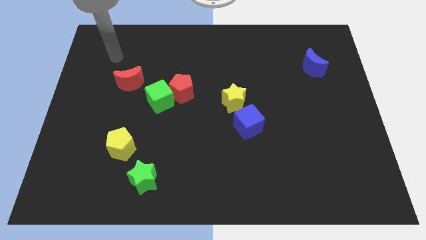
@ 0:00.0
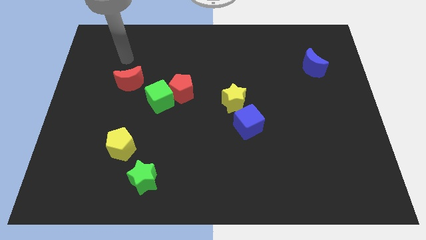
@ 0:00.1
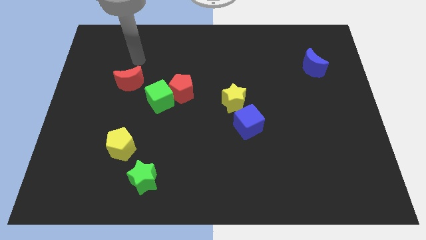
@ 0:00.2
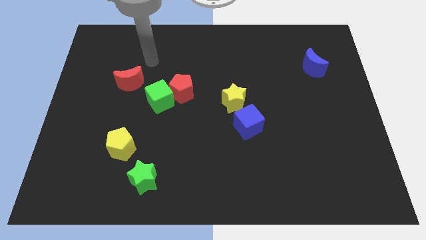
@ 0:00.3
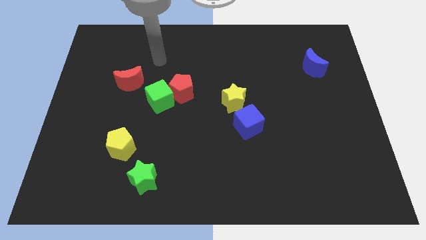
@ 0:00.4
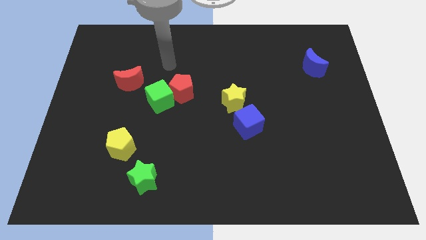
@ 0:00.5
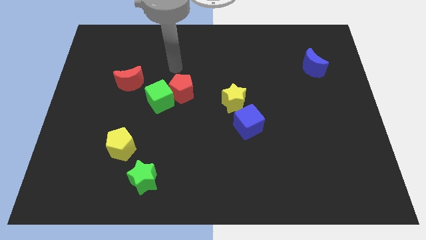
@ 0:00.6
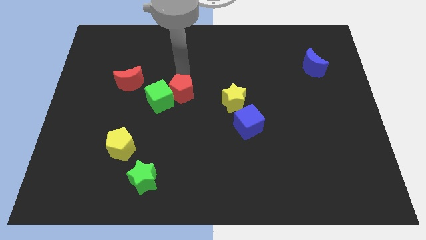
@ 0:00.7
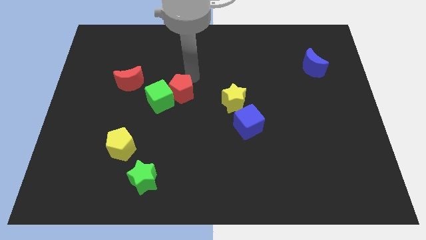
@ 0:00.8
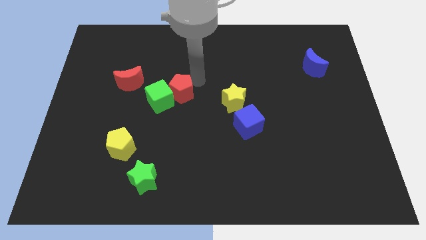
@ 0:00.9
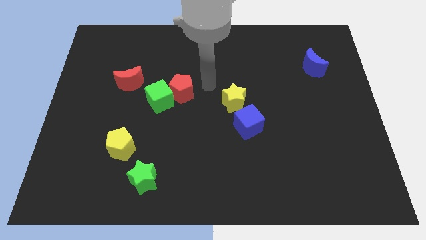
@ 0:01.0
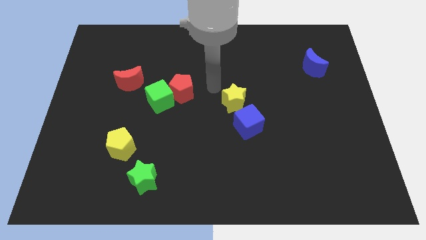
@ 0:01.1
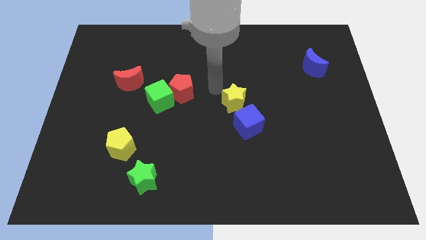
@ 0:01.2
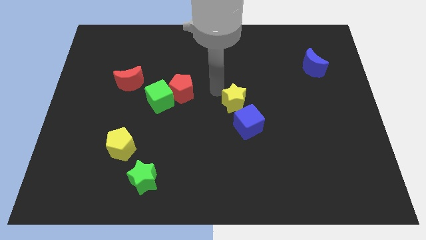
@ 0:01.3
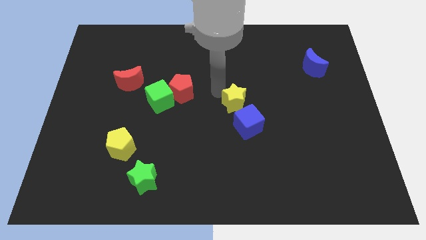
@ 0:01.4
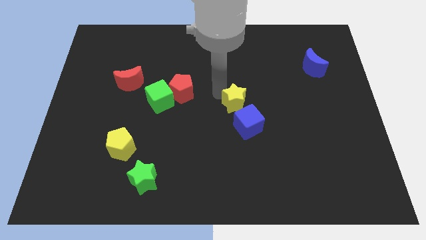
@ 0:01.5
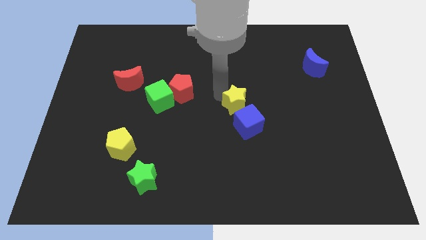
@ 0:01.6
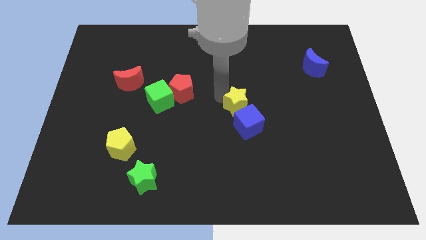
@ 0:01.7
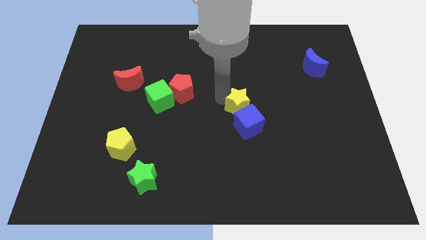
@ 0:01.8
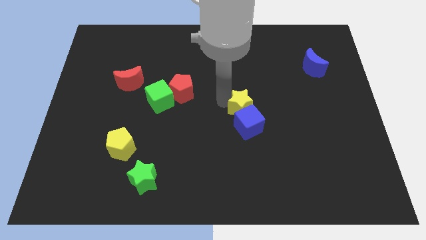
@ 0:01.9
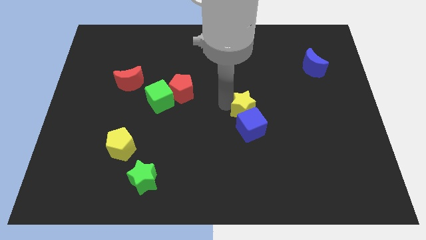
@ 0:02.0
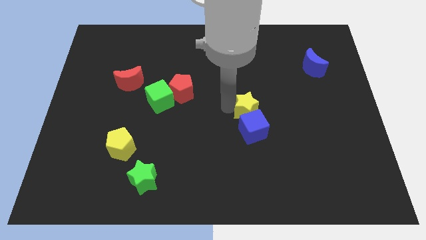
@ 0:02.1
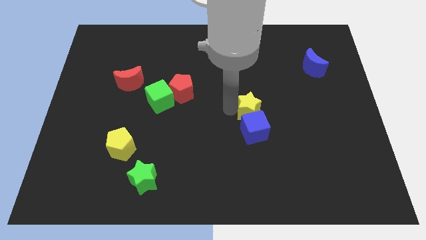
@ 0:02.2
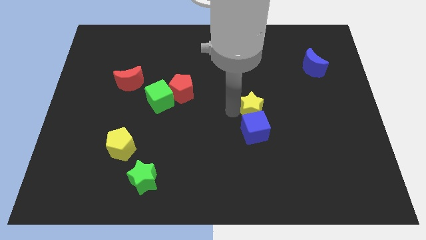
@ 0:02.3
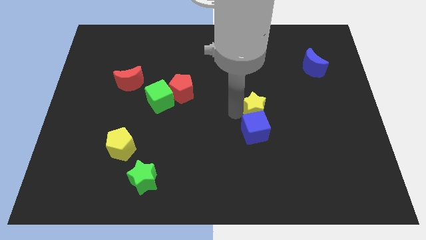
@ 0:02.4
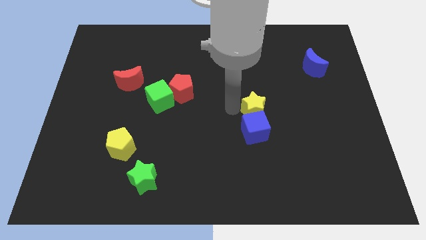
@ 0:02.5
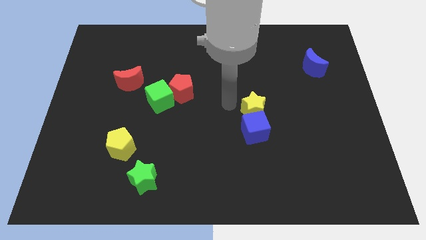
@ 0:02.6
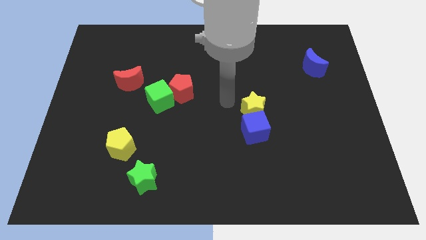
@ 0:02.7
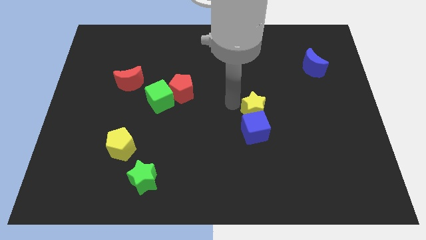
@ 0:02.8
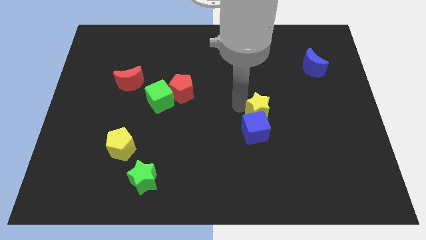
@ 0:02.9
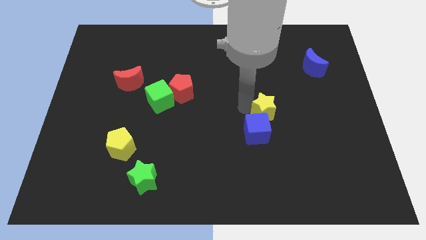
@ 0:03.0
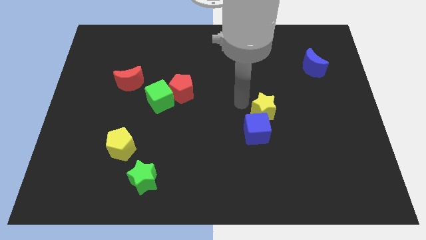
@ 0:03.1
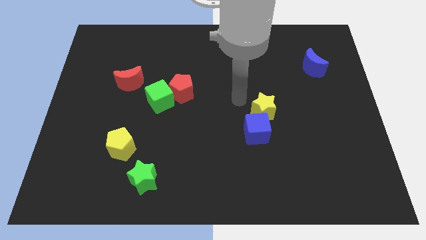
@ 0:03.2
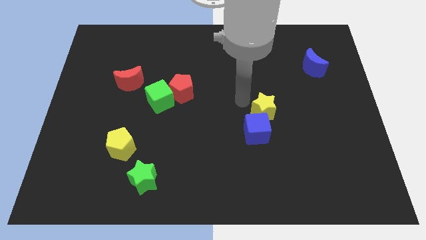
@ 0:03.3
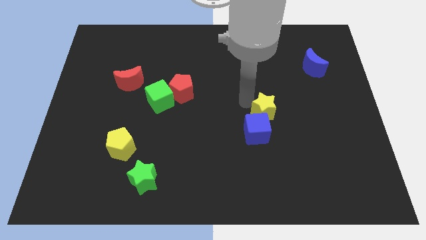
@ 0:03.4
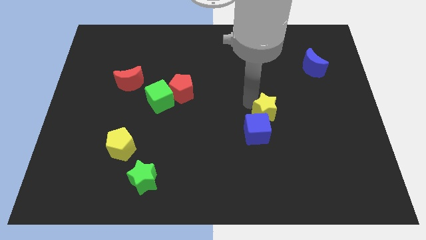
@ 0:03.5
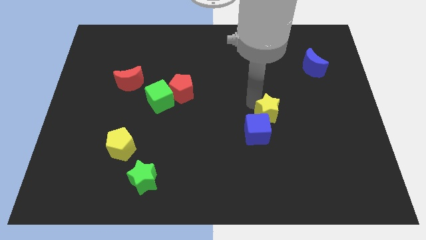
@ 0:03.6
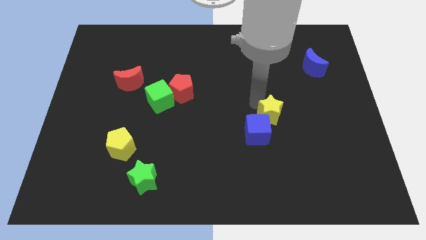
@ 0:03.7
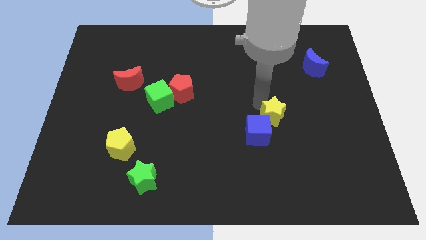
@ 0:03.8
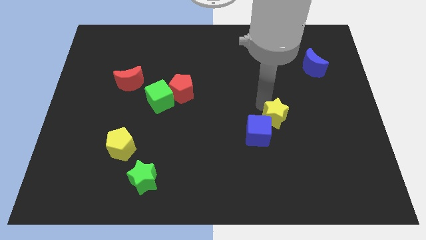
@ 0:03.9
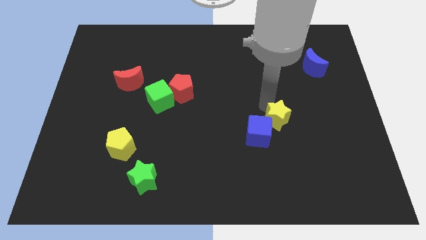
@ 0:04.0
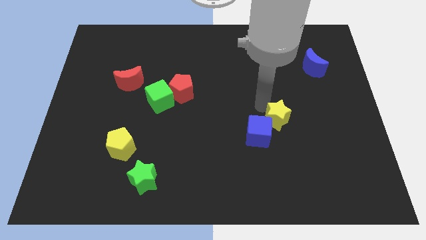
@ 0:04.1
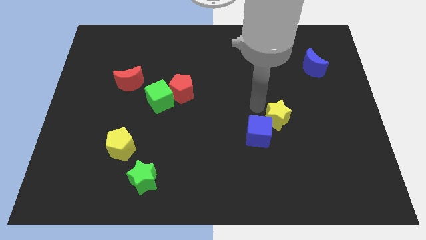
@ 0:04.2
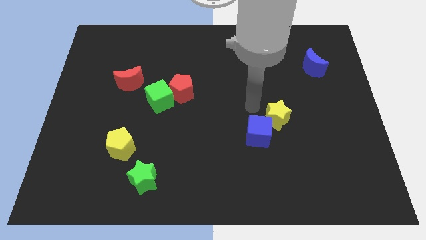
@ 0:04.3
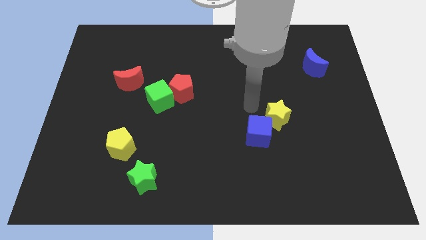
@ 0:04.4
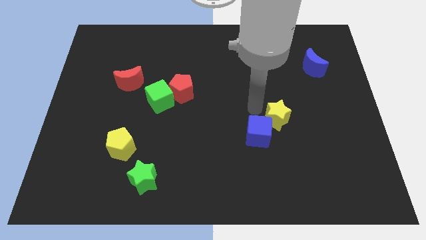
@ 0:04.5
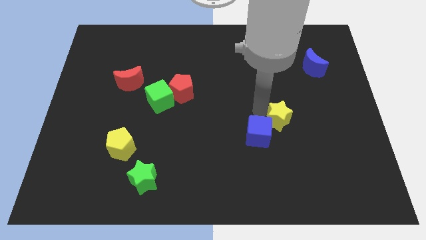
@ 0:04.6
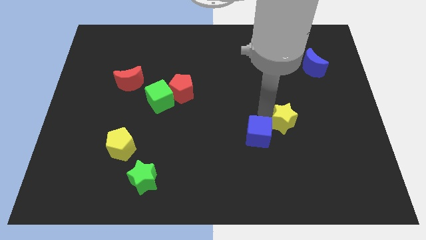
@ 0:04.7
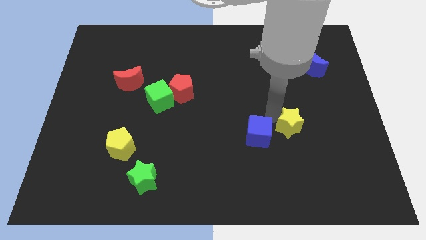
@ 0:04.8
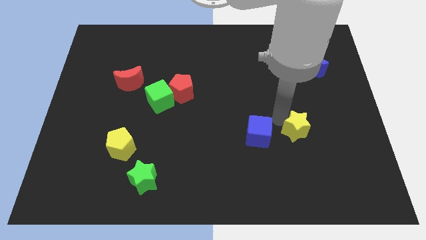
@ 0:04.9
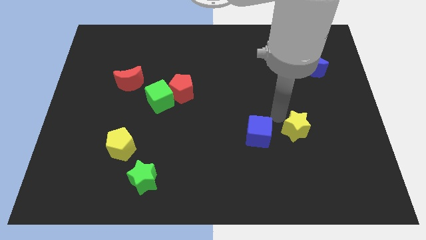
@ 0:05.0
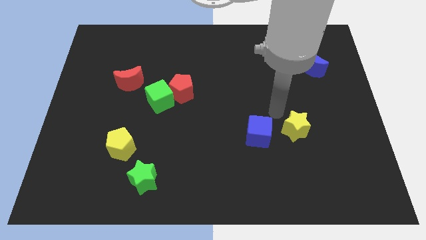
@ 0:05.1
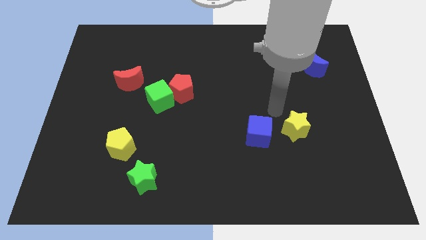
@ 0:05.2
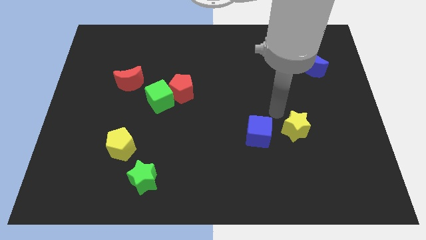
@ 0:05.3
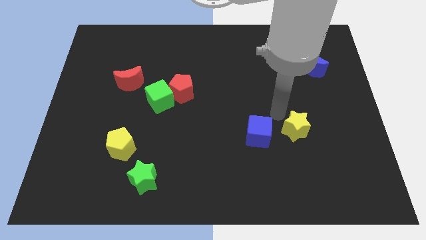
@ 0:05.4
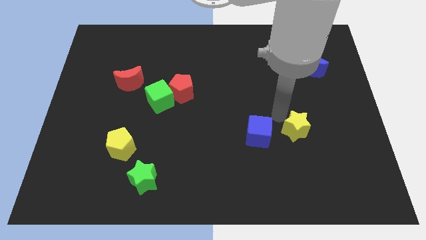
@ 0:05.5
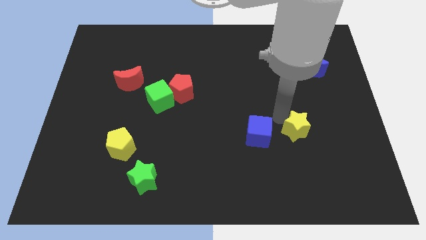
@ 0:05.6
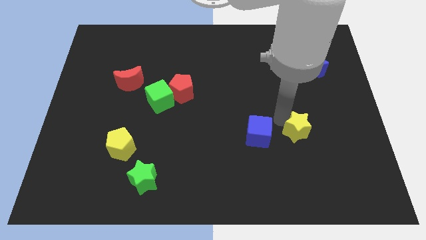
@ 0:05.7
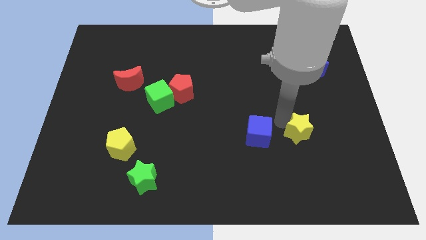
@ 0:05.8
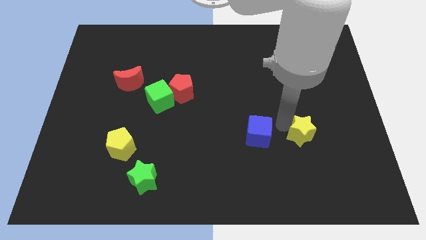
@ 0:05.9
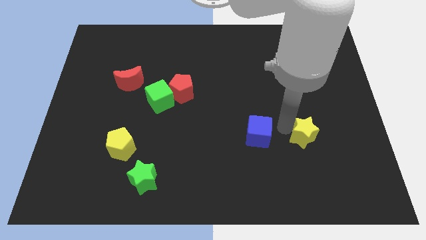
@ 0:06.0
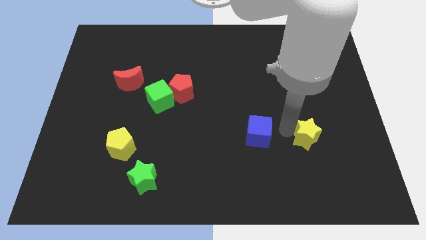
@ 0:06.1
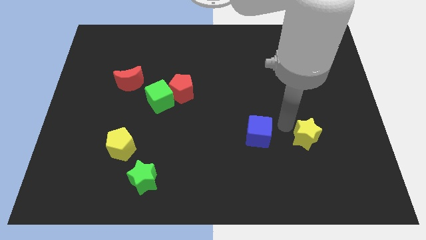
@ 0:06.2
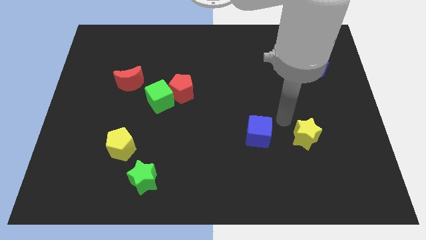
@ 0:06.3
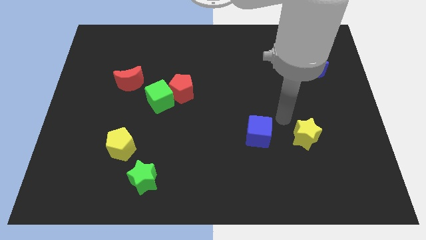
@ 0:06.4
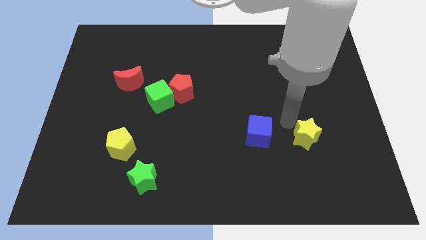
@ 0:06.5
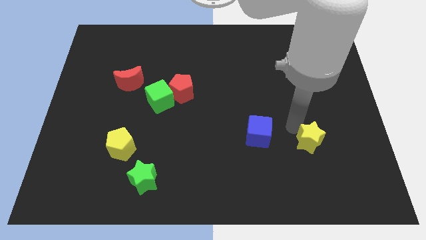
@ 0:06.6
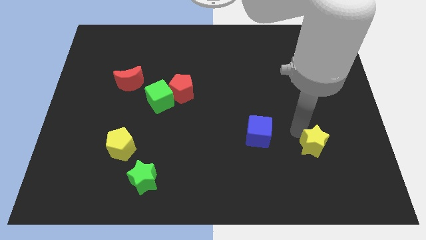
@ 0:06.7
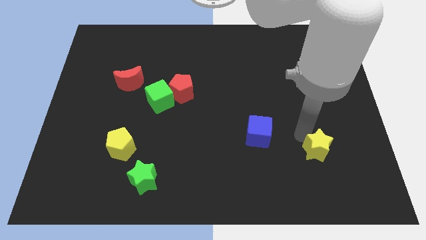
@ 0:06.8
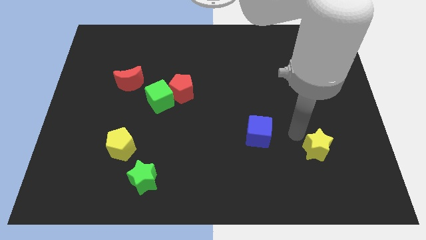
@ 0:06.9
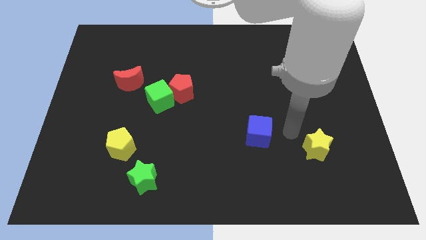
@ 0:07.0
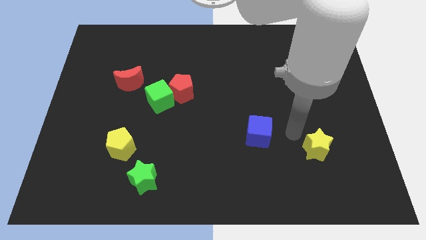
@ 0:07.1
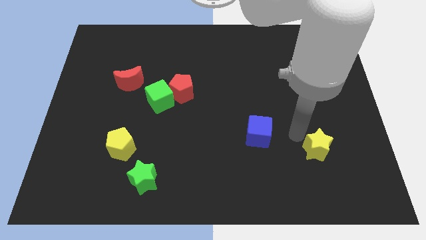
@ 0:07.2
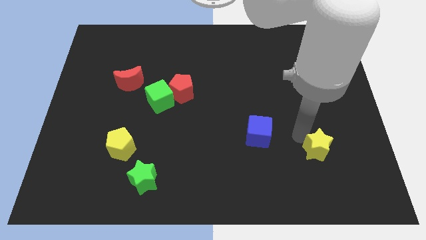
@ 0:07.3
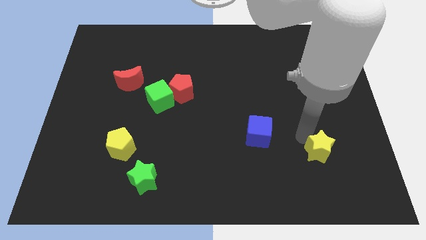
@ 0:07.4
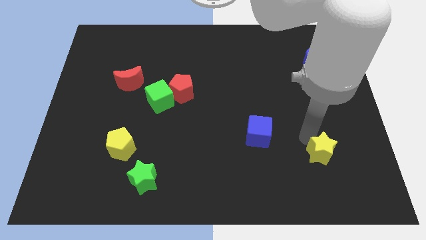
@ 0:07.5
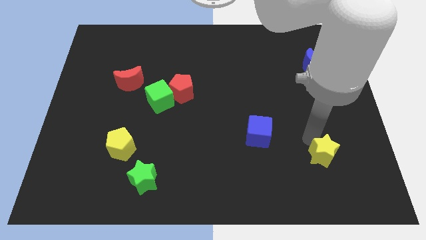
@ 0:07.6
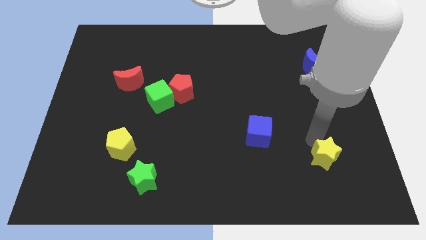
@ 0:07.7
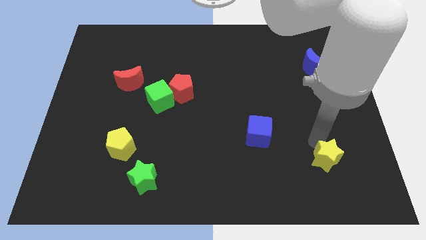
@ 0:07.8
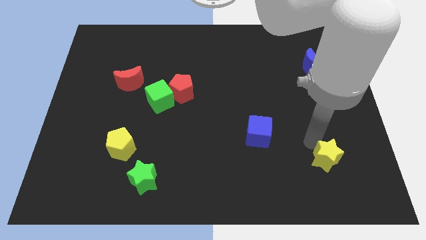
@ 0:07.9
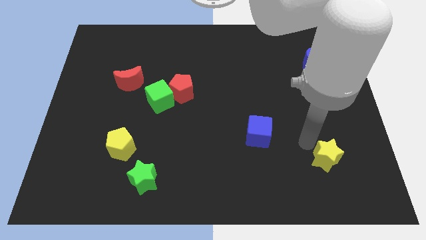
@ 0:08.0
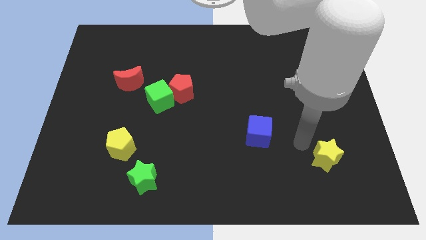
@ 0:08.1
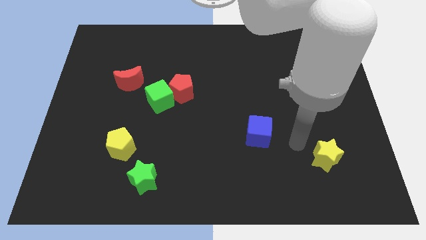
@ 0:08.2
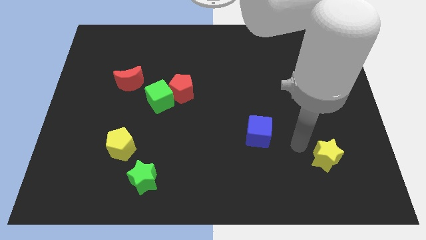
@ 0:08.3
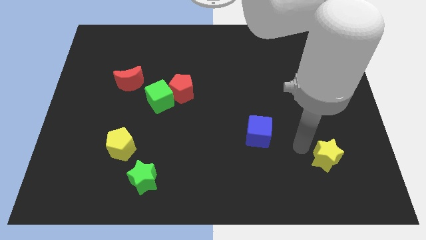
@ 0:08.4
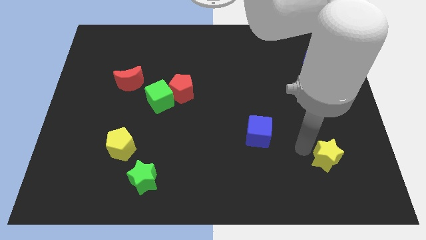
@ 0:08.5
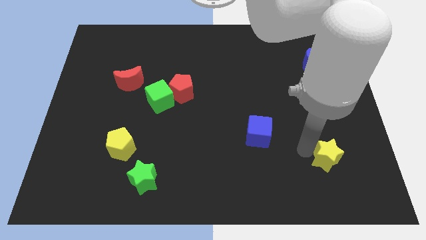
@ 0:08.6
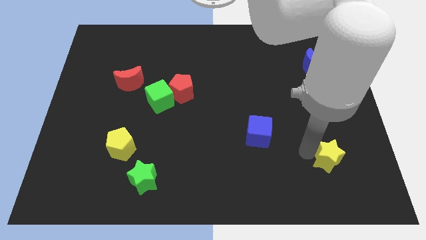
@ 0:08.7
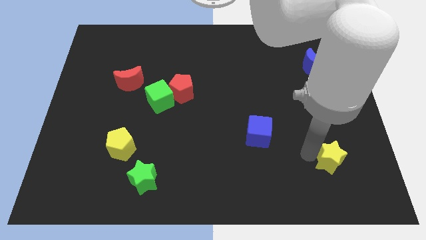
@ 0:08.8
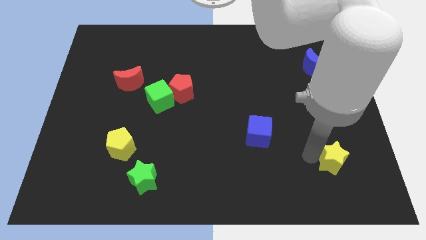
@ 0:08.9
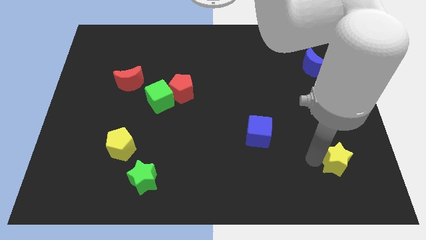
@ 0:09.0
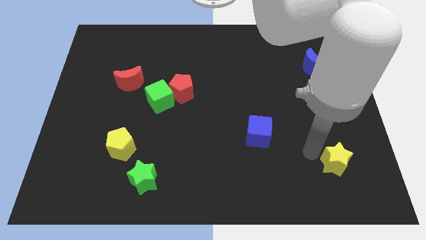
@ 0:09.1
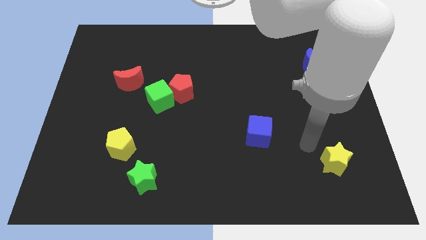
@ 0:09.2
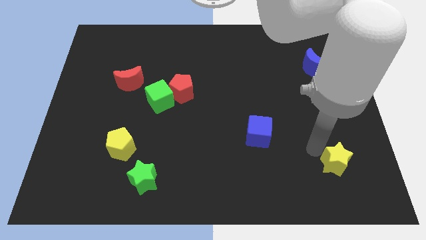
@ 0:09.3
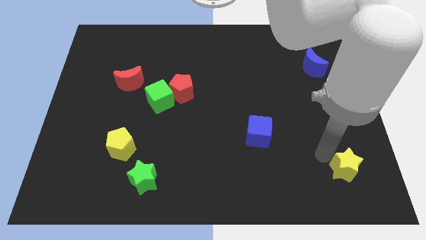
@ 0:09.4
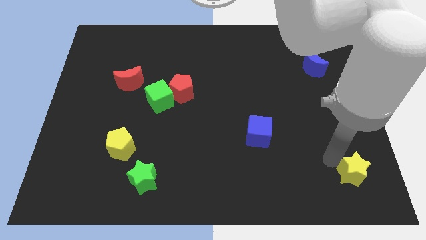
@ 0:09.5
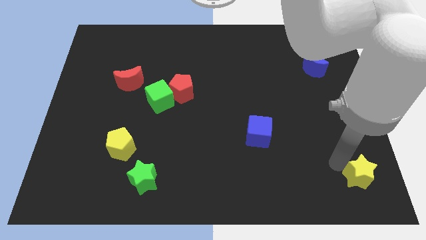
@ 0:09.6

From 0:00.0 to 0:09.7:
move the yellow star to the bottom right corner
